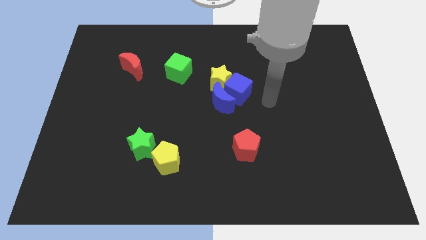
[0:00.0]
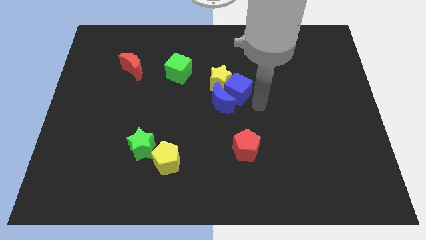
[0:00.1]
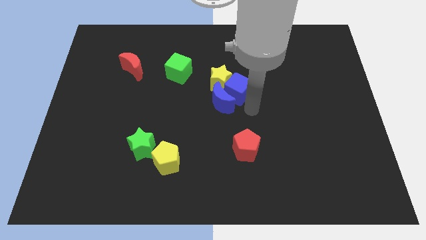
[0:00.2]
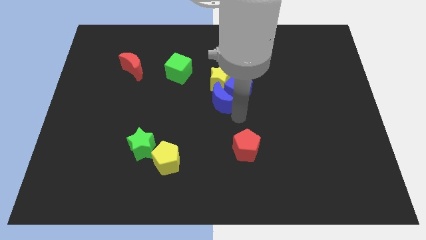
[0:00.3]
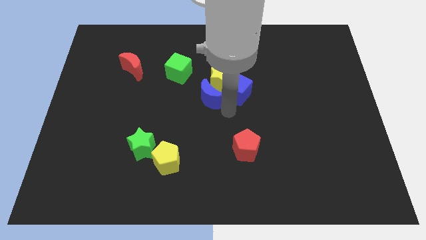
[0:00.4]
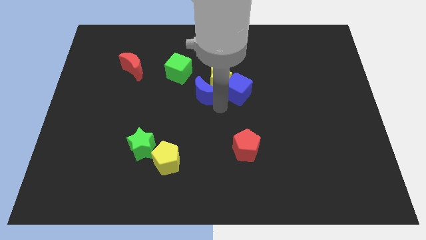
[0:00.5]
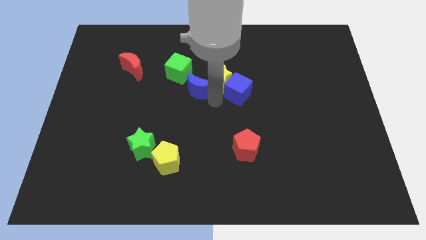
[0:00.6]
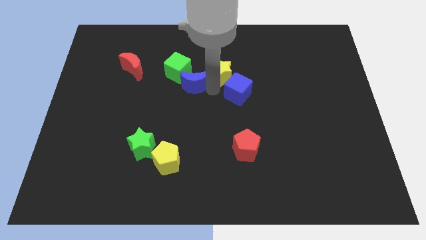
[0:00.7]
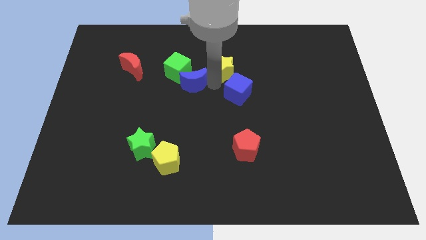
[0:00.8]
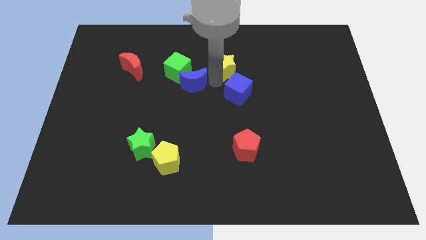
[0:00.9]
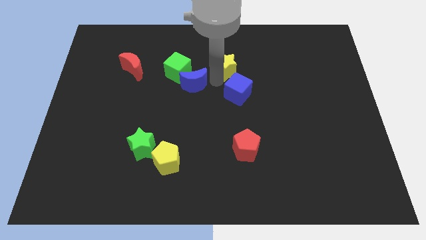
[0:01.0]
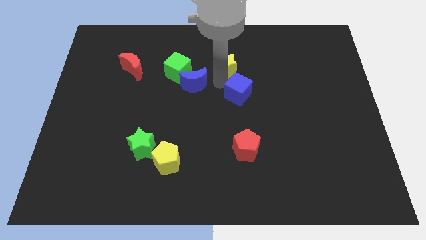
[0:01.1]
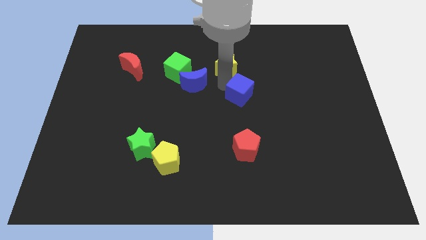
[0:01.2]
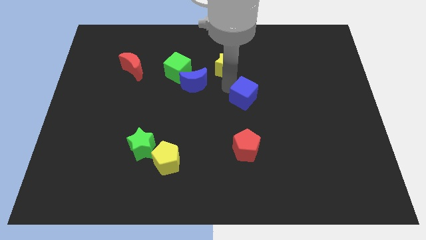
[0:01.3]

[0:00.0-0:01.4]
move the blue cube away from the yellow star and blue moon

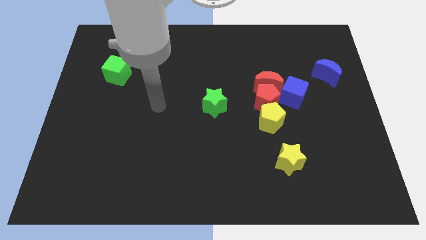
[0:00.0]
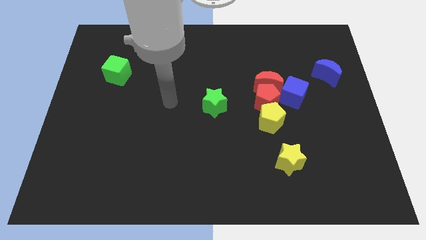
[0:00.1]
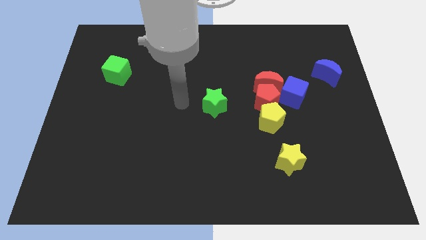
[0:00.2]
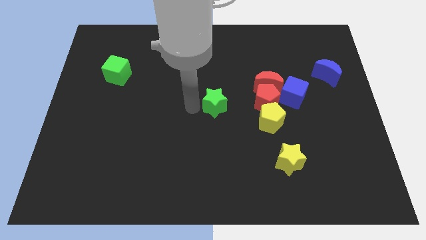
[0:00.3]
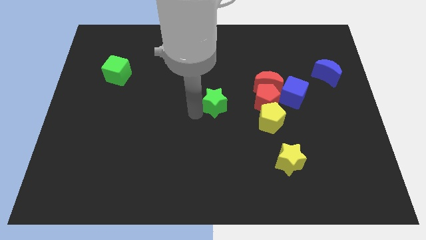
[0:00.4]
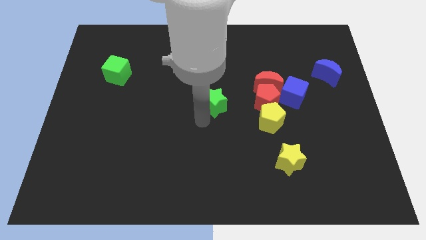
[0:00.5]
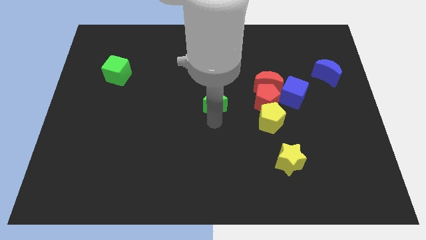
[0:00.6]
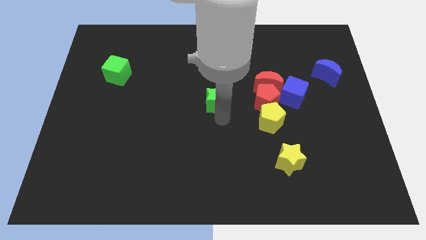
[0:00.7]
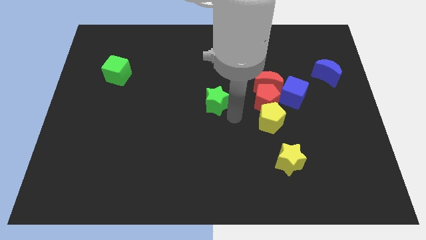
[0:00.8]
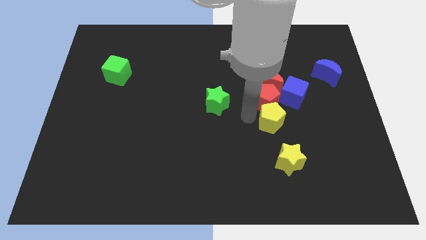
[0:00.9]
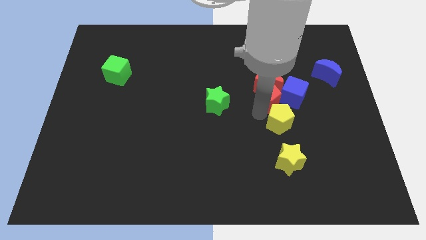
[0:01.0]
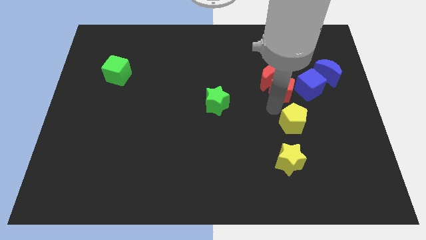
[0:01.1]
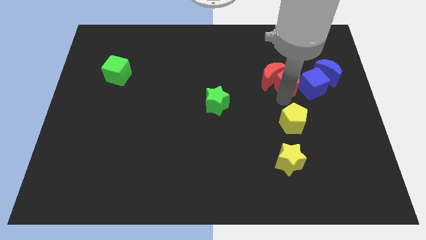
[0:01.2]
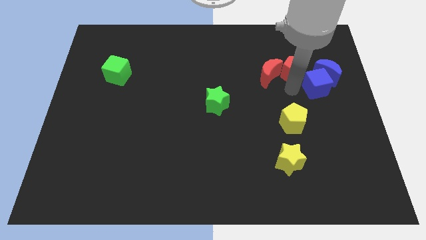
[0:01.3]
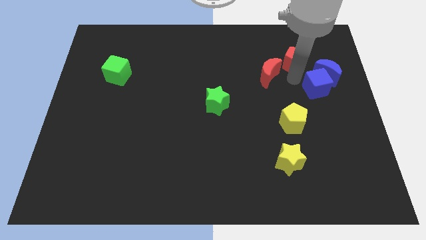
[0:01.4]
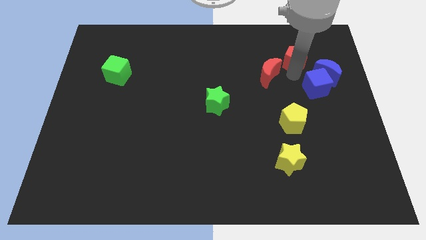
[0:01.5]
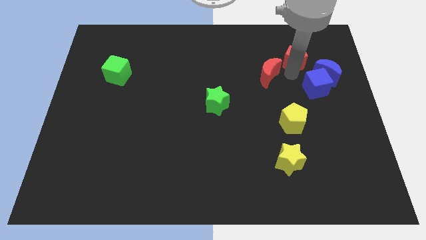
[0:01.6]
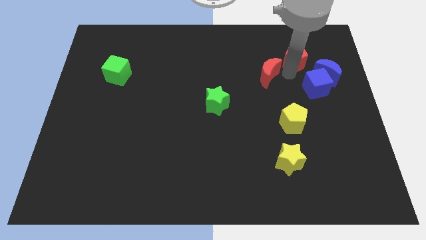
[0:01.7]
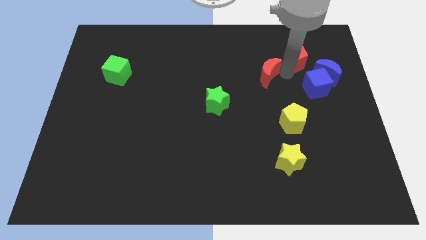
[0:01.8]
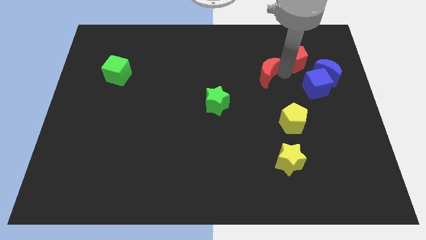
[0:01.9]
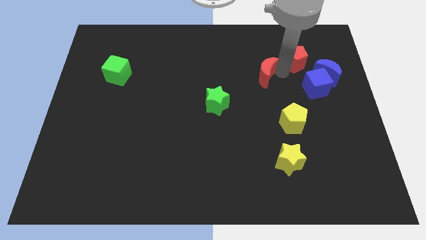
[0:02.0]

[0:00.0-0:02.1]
pull the red moon apart from the red pentagon and blue cube

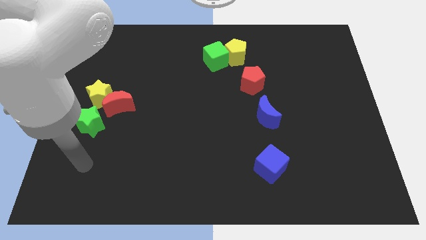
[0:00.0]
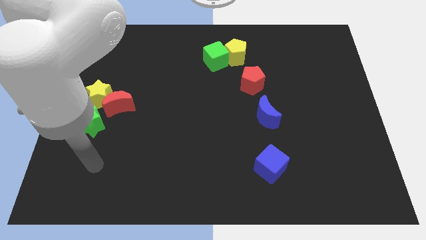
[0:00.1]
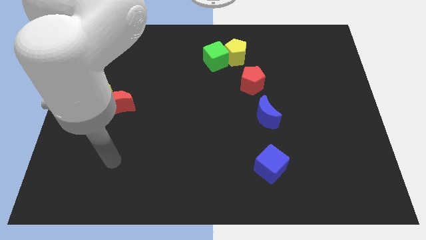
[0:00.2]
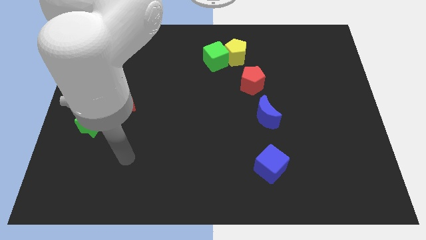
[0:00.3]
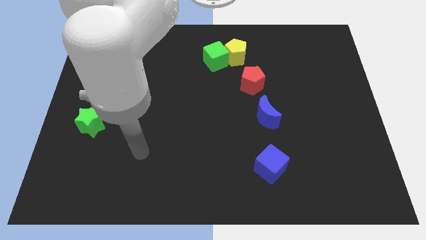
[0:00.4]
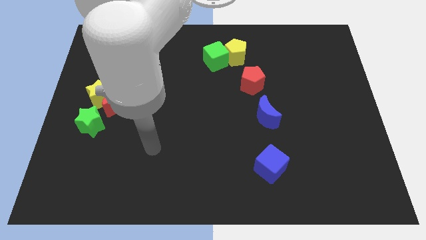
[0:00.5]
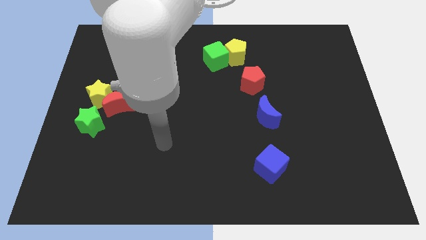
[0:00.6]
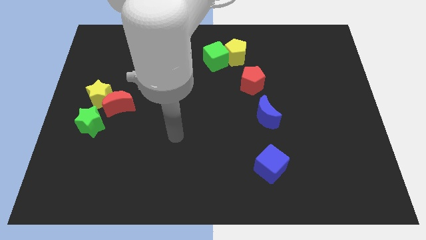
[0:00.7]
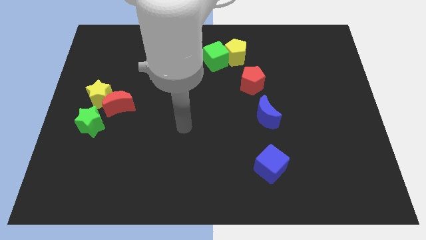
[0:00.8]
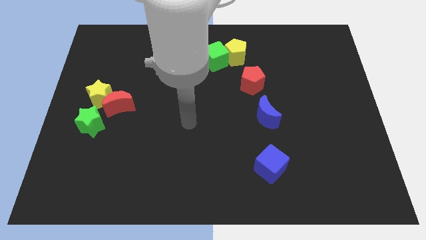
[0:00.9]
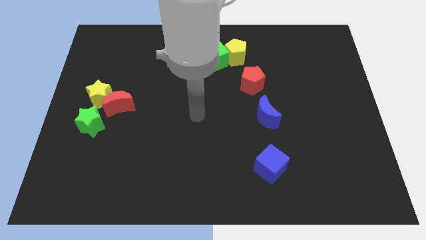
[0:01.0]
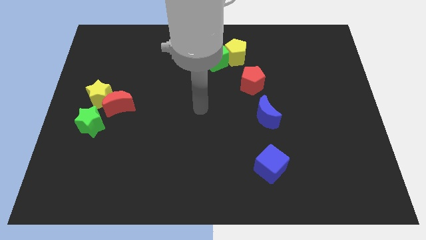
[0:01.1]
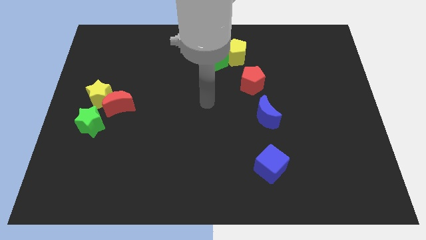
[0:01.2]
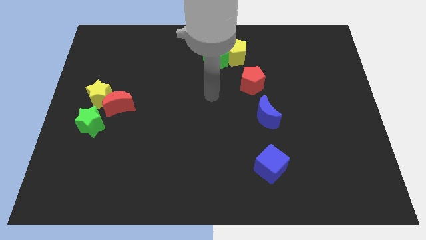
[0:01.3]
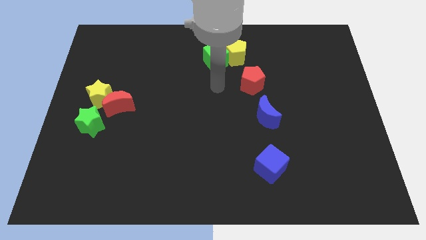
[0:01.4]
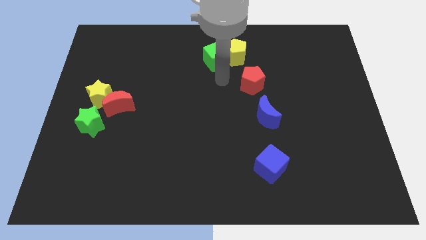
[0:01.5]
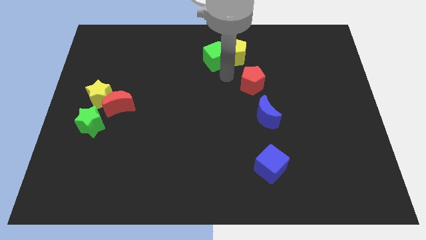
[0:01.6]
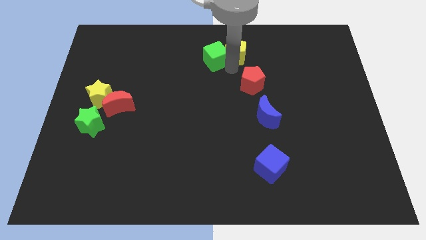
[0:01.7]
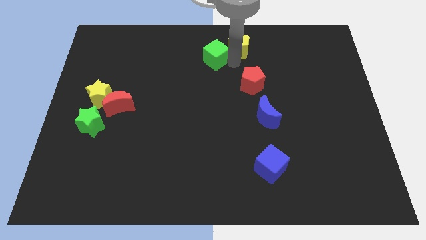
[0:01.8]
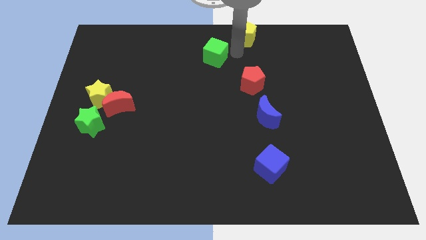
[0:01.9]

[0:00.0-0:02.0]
pull the green cube apart from the yellow pentagon

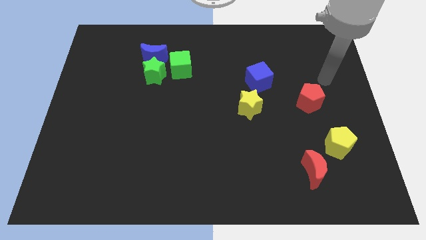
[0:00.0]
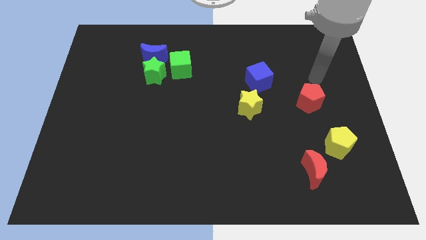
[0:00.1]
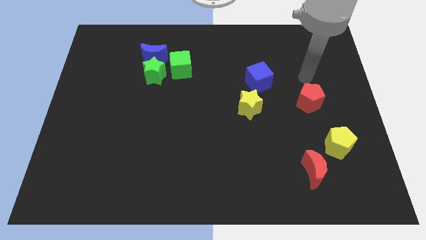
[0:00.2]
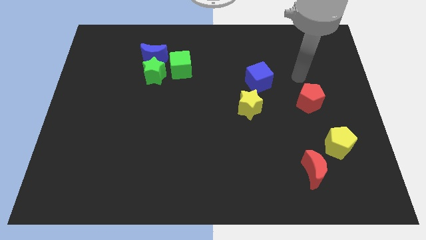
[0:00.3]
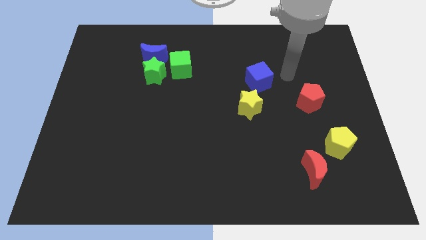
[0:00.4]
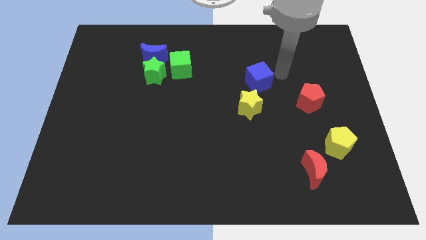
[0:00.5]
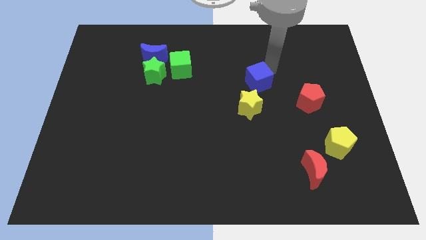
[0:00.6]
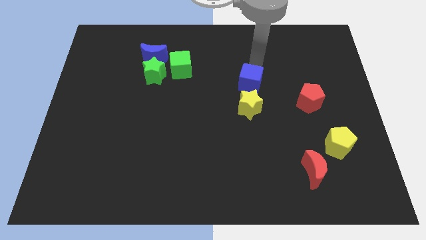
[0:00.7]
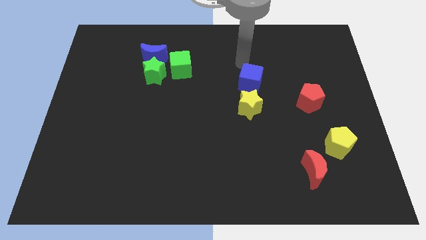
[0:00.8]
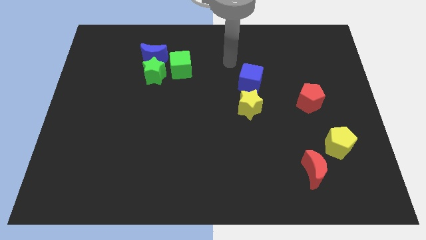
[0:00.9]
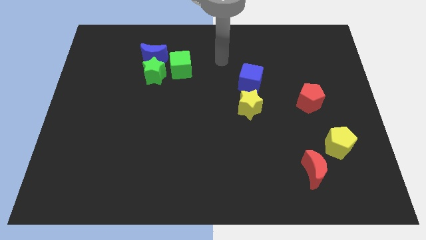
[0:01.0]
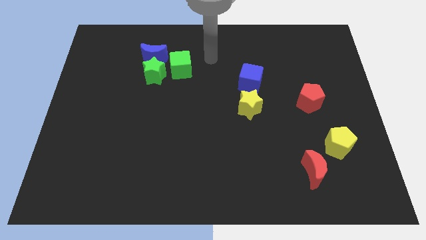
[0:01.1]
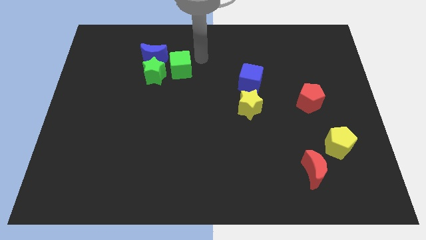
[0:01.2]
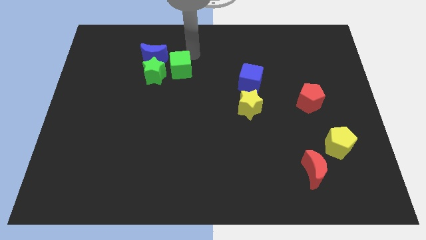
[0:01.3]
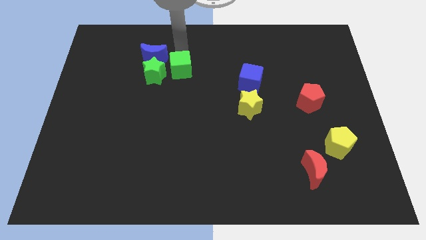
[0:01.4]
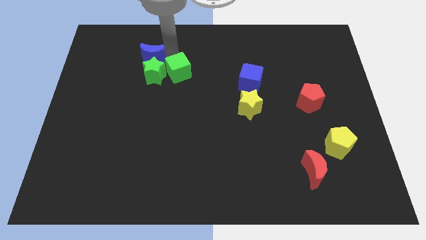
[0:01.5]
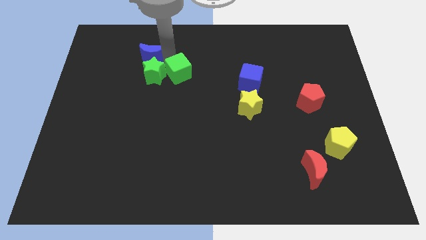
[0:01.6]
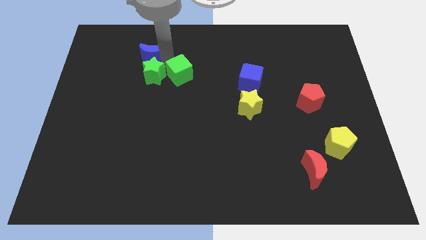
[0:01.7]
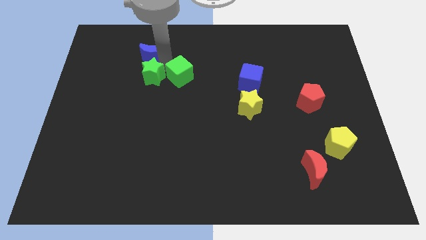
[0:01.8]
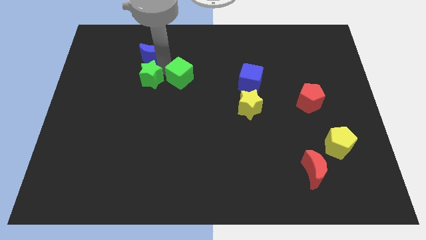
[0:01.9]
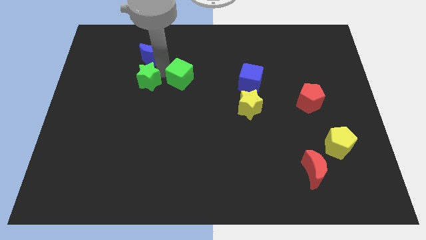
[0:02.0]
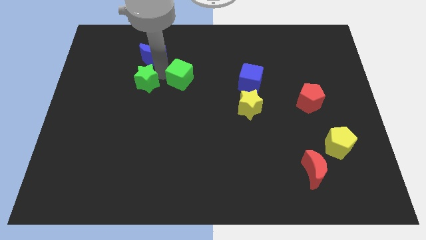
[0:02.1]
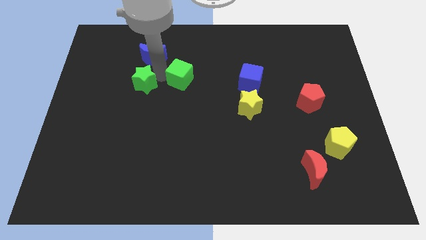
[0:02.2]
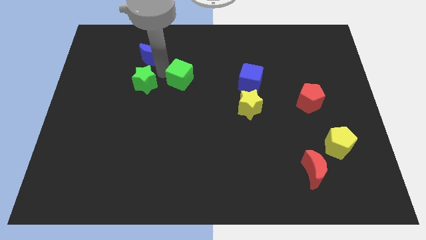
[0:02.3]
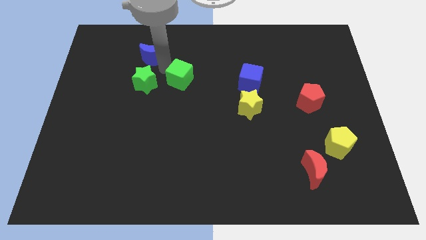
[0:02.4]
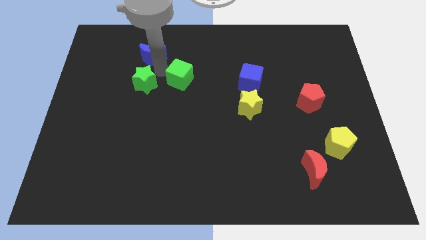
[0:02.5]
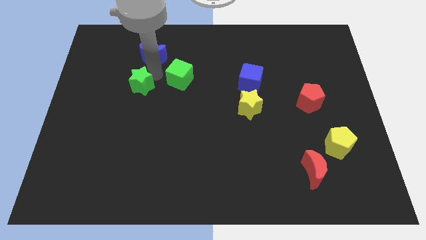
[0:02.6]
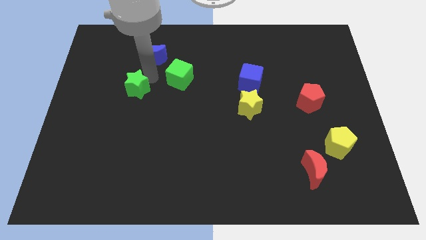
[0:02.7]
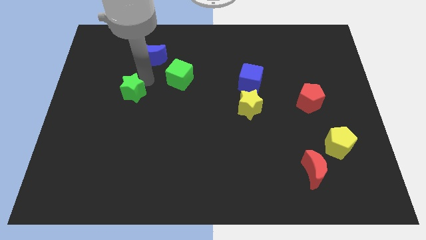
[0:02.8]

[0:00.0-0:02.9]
pull the green star apart from the blue moon and green cube

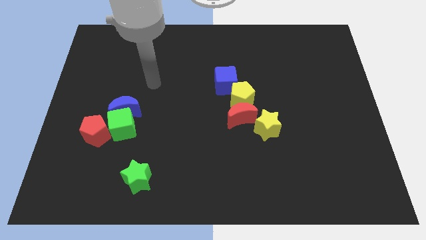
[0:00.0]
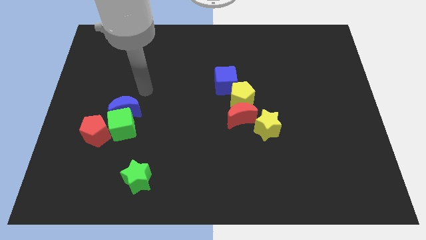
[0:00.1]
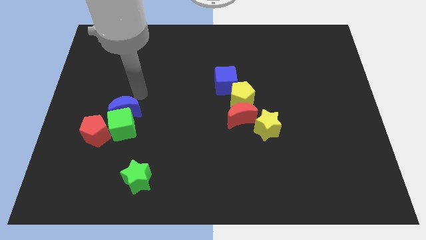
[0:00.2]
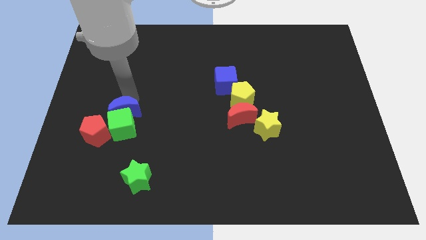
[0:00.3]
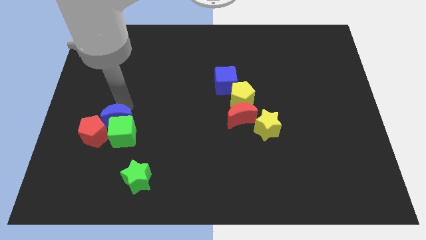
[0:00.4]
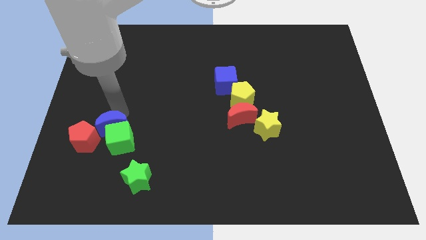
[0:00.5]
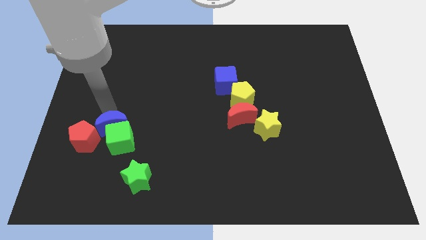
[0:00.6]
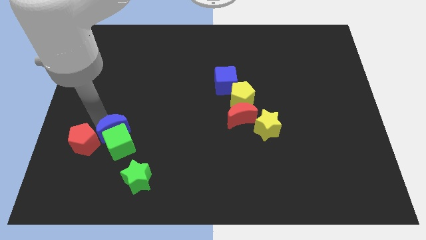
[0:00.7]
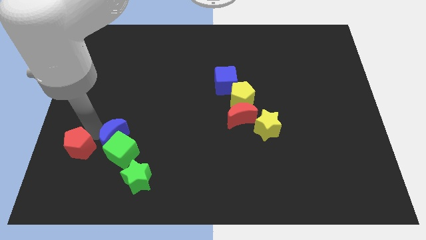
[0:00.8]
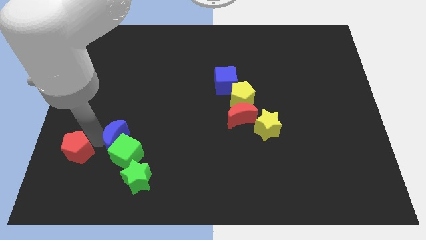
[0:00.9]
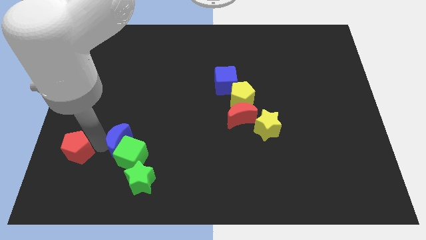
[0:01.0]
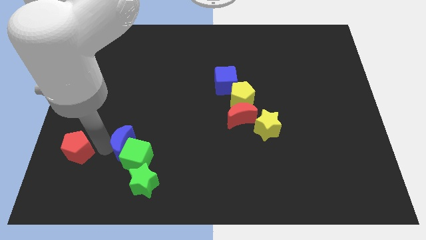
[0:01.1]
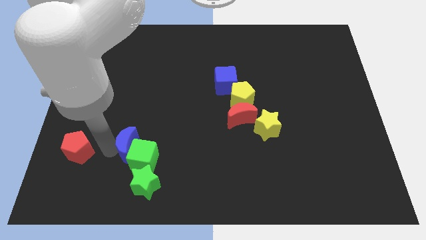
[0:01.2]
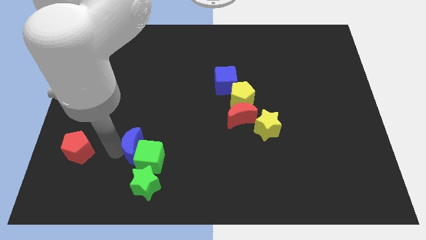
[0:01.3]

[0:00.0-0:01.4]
move the green cube away from the blue moon and red pentagon
